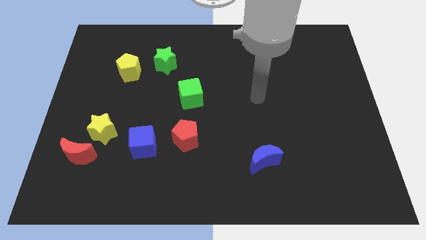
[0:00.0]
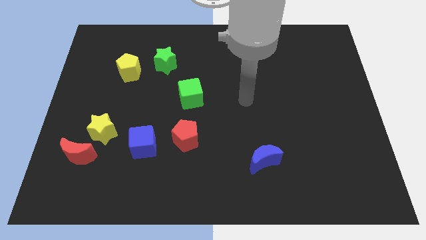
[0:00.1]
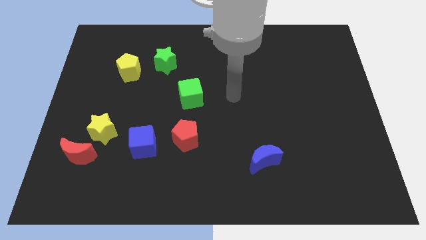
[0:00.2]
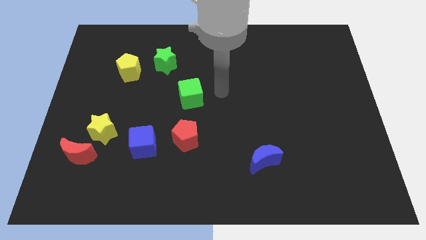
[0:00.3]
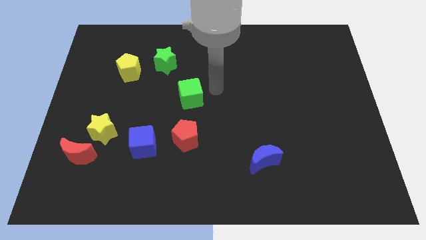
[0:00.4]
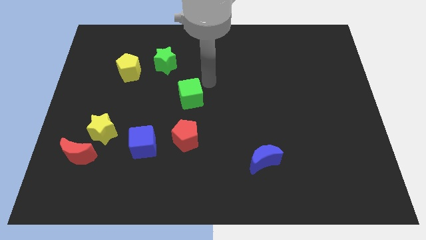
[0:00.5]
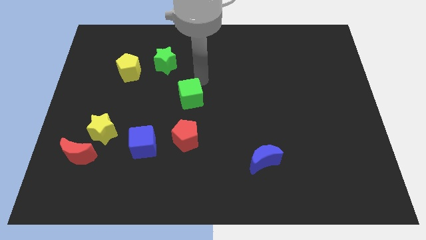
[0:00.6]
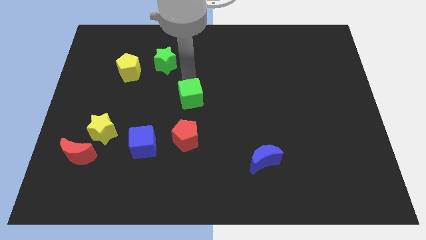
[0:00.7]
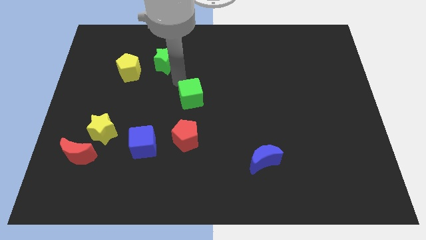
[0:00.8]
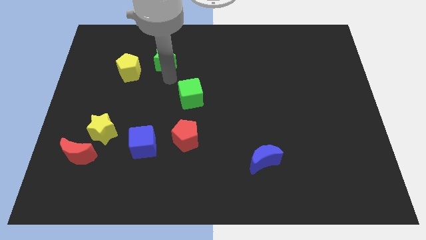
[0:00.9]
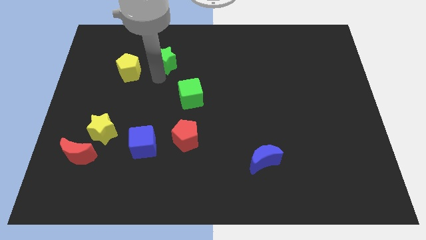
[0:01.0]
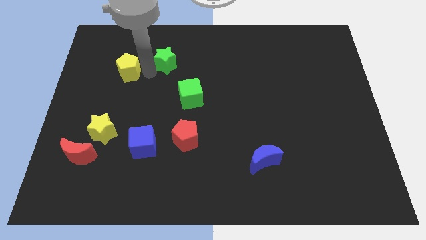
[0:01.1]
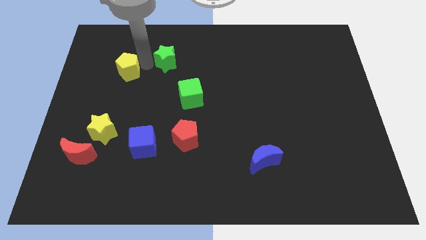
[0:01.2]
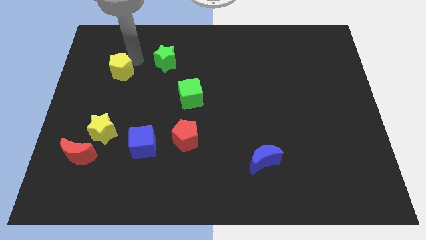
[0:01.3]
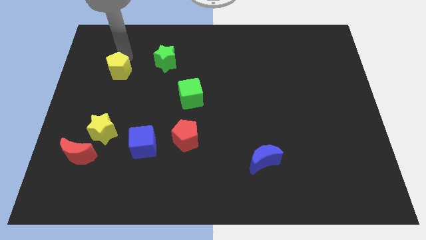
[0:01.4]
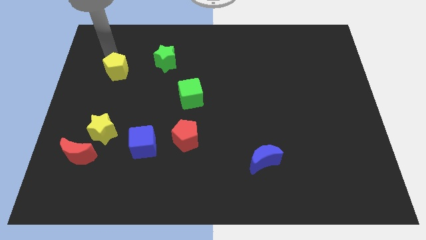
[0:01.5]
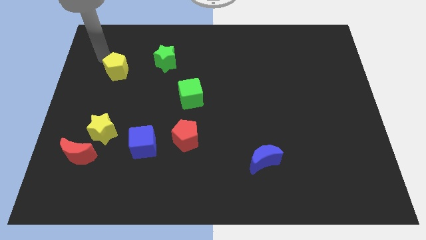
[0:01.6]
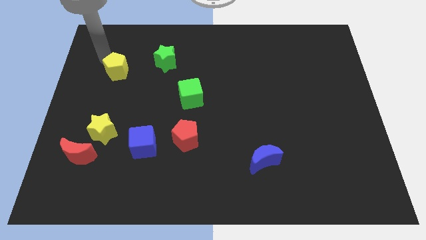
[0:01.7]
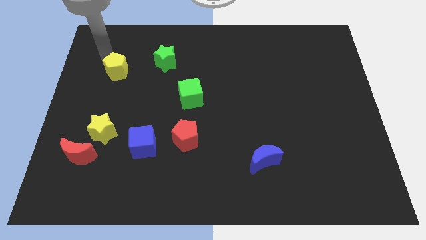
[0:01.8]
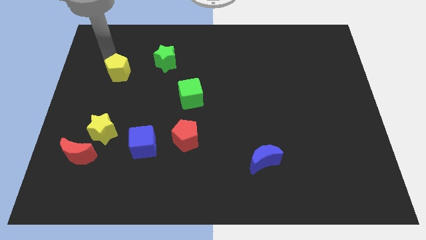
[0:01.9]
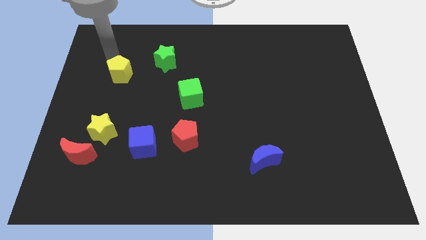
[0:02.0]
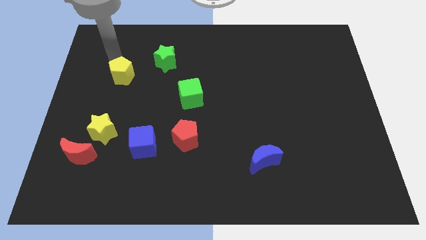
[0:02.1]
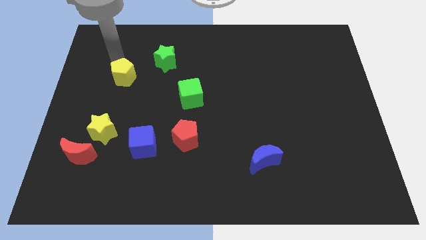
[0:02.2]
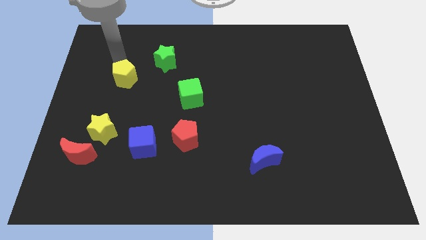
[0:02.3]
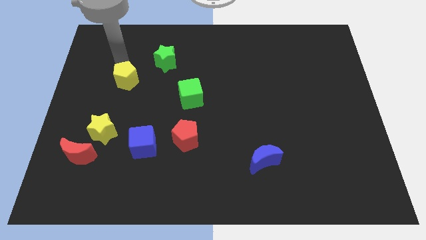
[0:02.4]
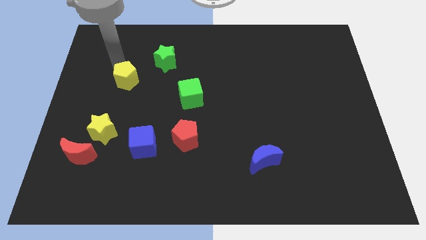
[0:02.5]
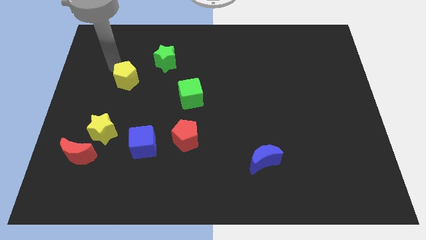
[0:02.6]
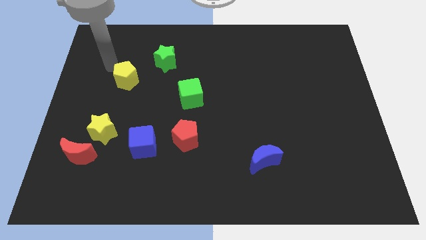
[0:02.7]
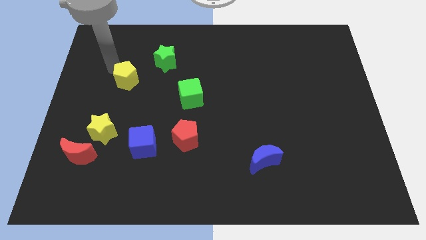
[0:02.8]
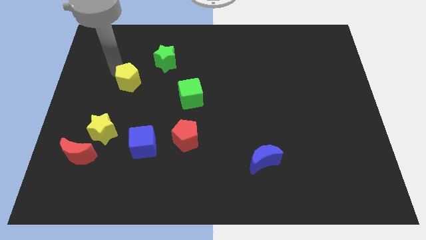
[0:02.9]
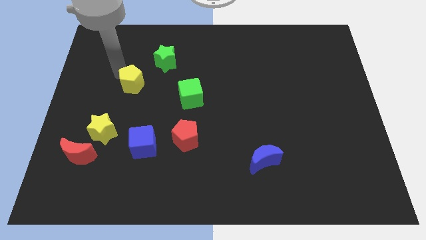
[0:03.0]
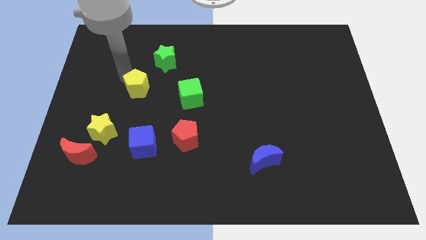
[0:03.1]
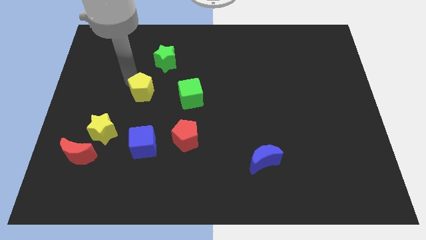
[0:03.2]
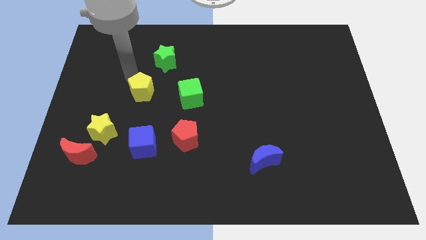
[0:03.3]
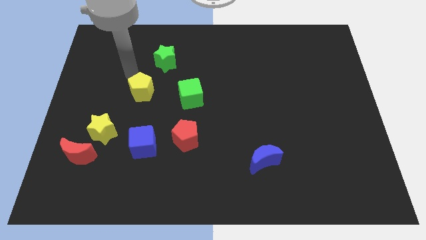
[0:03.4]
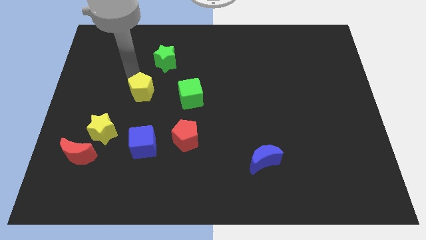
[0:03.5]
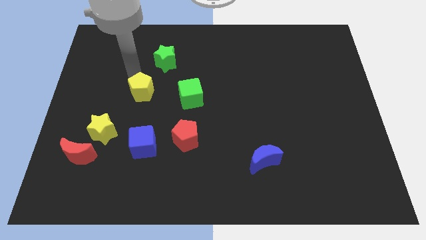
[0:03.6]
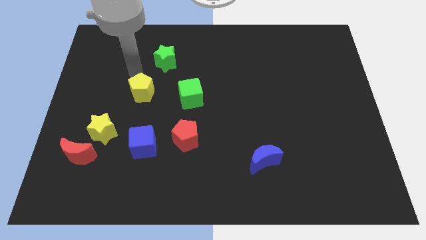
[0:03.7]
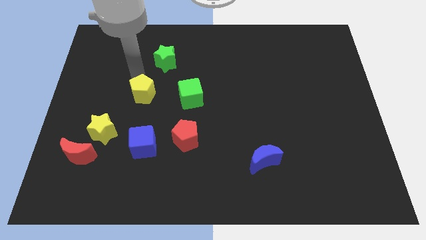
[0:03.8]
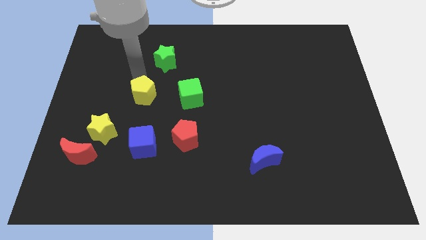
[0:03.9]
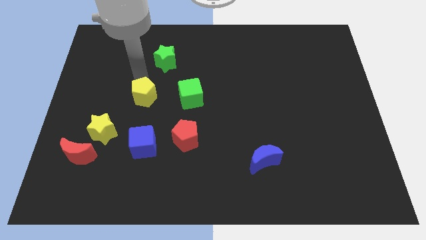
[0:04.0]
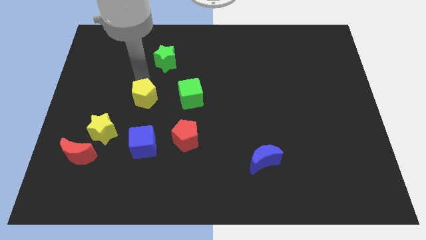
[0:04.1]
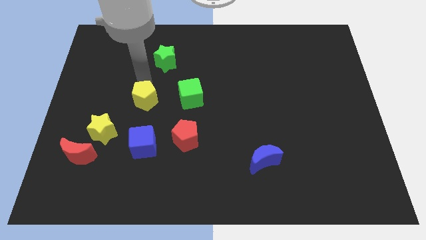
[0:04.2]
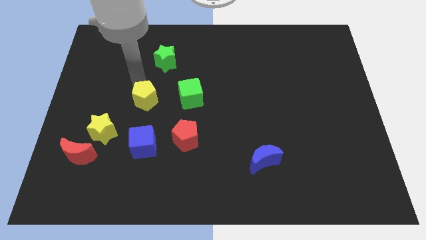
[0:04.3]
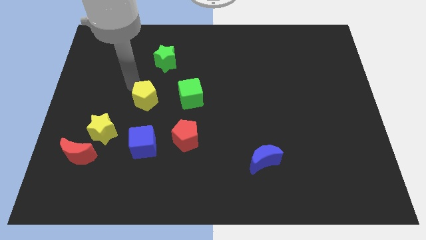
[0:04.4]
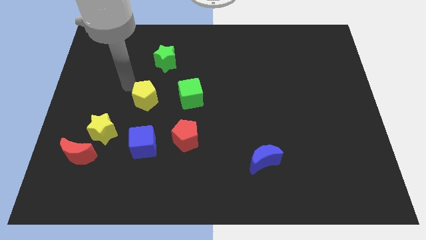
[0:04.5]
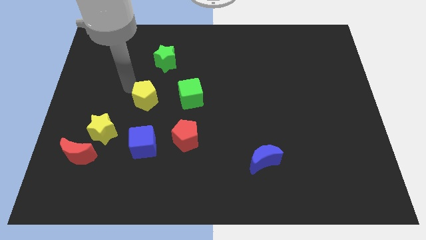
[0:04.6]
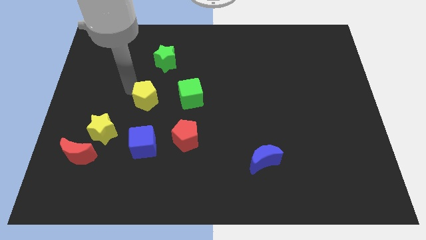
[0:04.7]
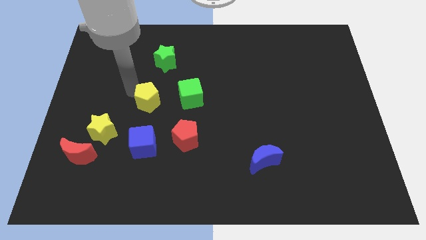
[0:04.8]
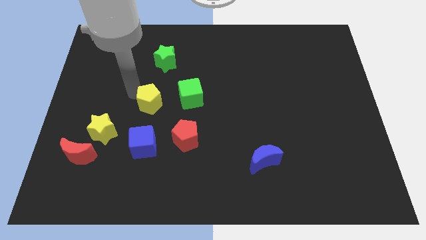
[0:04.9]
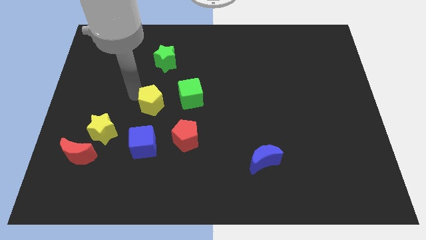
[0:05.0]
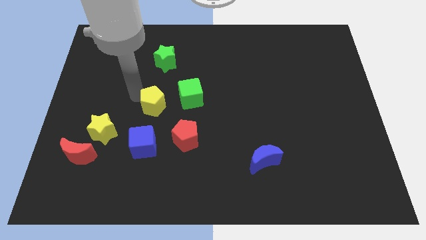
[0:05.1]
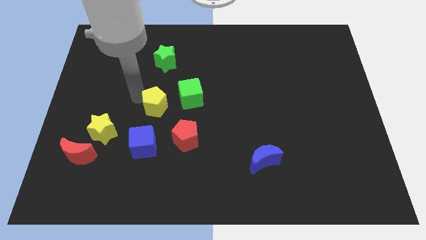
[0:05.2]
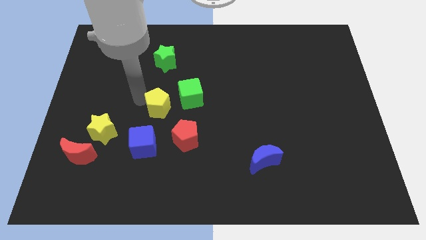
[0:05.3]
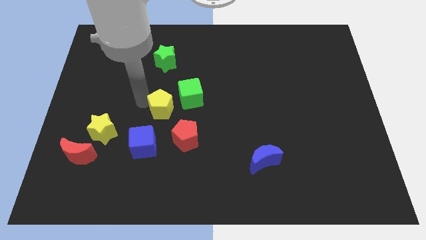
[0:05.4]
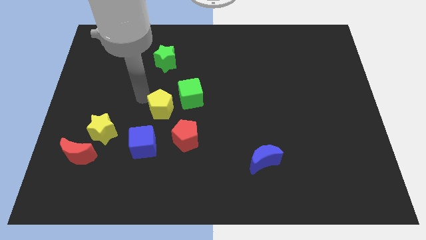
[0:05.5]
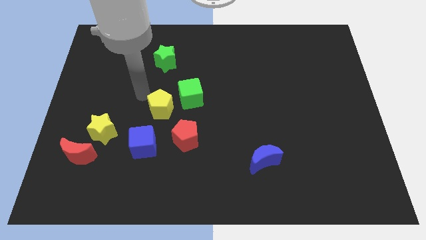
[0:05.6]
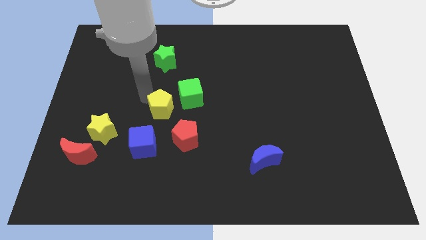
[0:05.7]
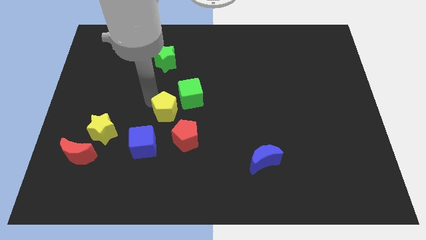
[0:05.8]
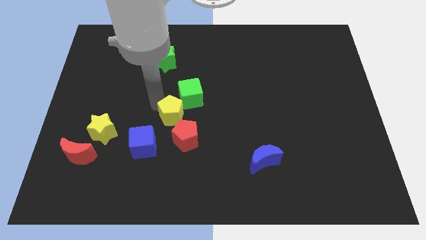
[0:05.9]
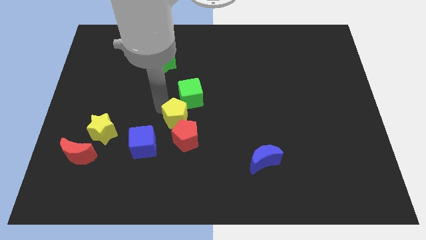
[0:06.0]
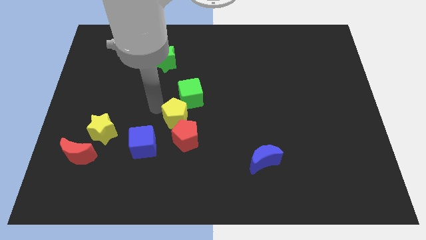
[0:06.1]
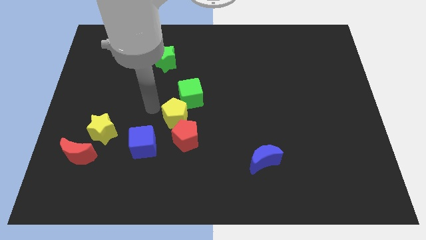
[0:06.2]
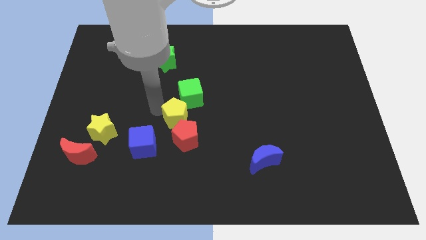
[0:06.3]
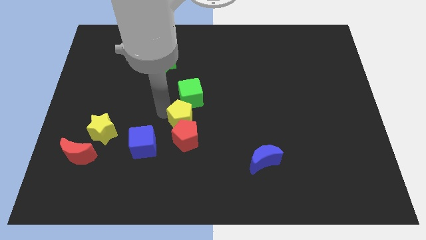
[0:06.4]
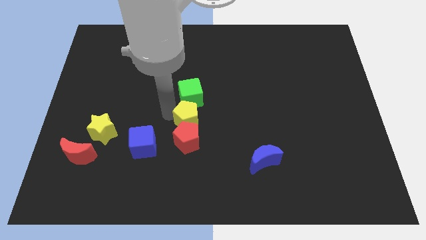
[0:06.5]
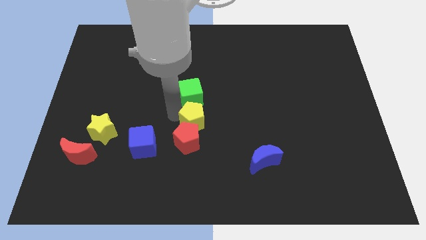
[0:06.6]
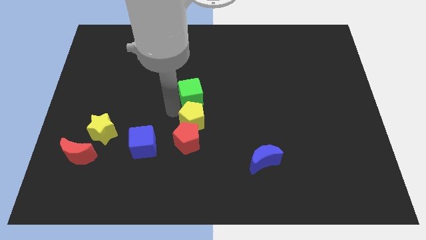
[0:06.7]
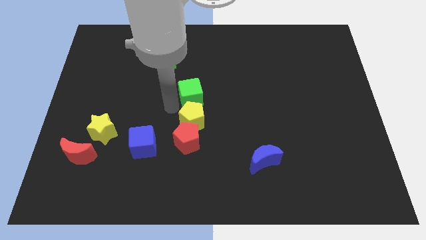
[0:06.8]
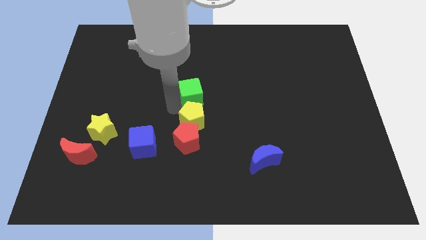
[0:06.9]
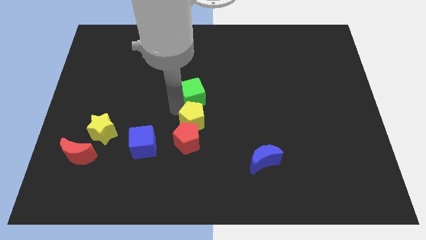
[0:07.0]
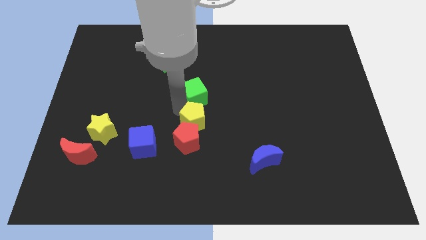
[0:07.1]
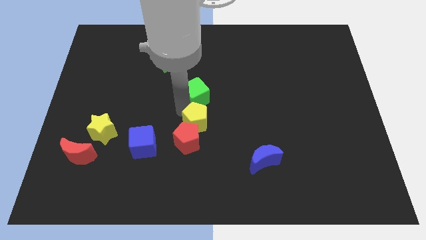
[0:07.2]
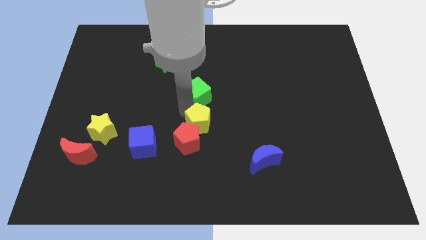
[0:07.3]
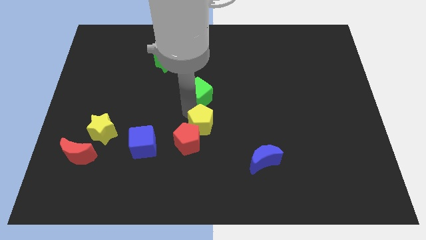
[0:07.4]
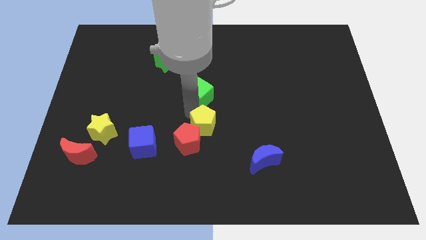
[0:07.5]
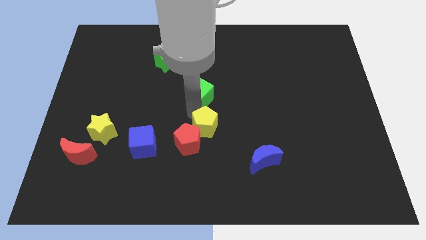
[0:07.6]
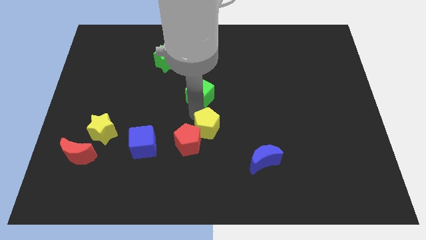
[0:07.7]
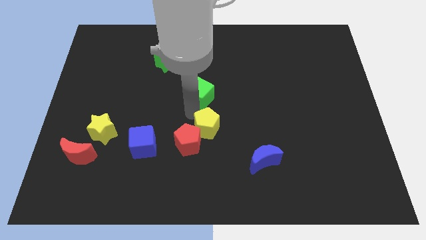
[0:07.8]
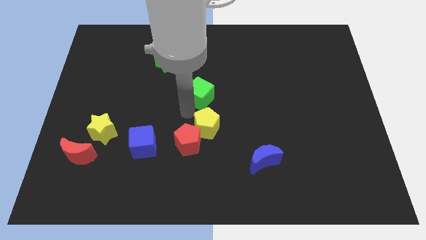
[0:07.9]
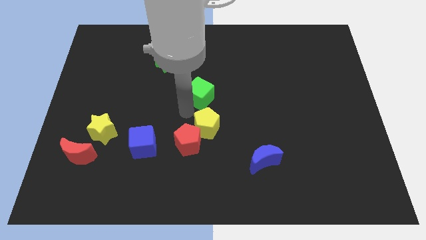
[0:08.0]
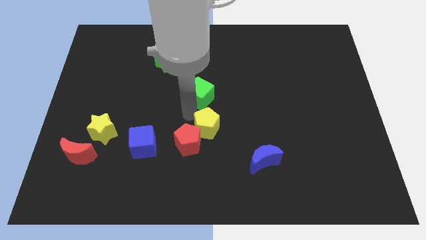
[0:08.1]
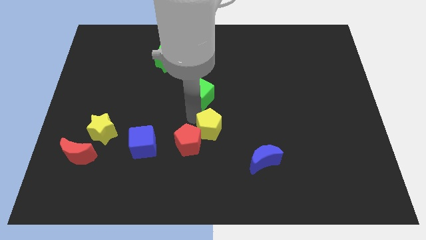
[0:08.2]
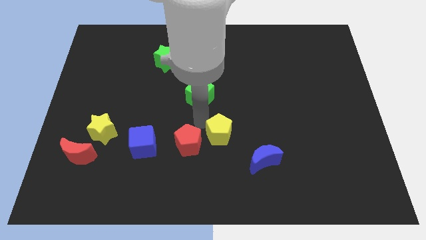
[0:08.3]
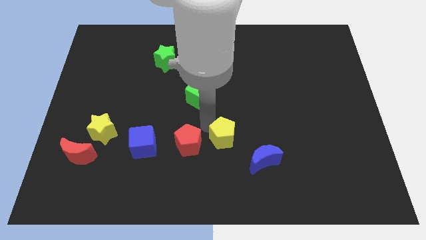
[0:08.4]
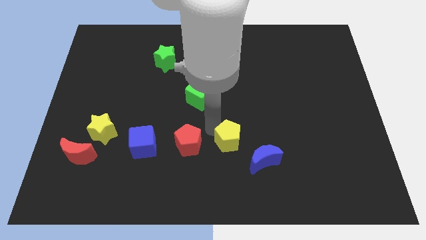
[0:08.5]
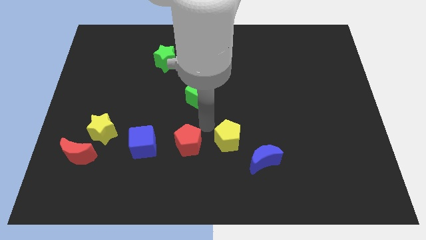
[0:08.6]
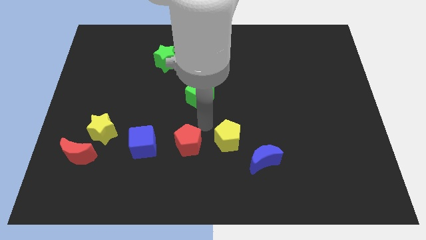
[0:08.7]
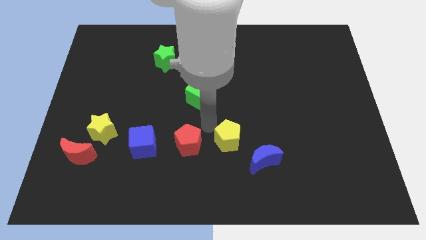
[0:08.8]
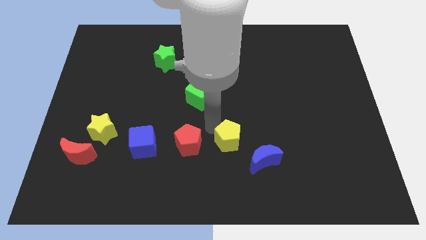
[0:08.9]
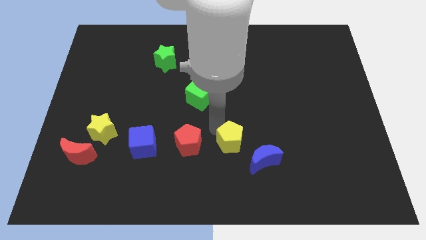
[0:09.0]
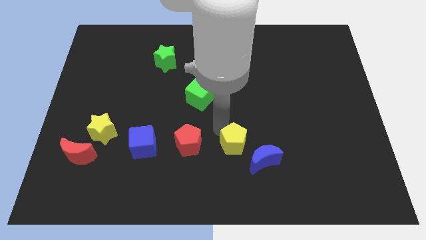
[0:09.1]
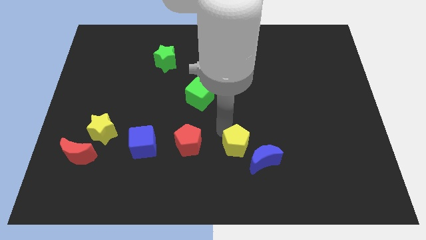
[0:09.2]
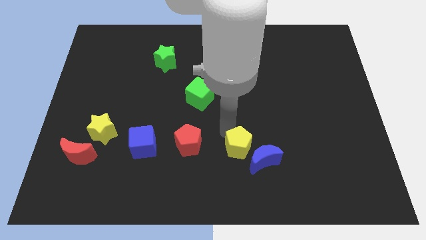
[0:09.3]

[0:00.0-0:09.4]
slide the yellow pentagon to the blue moon
